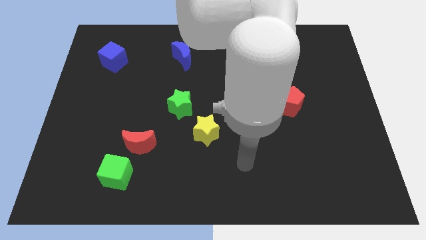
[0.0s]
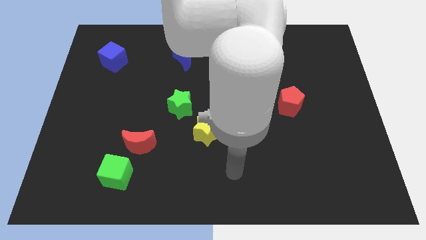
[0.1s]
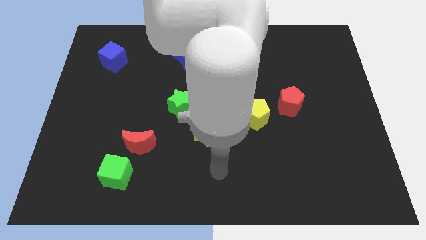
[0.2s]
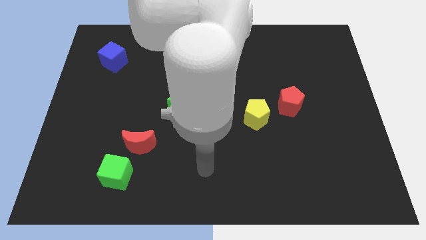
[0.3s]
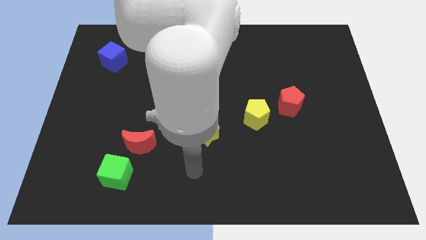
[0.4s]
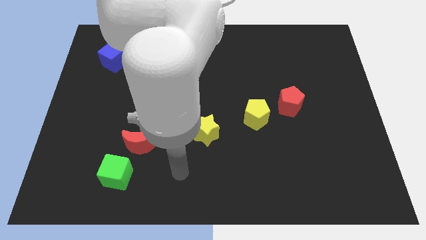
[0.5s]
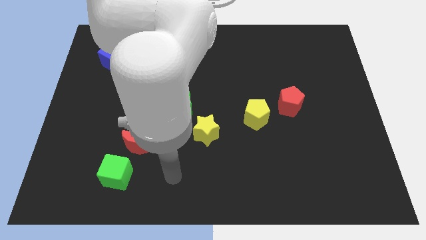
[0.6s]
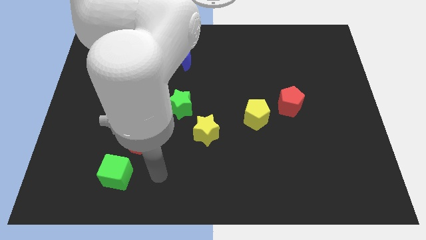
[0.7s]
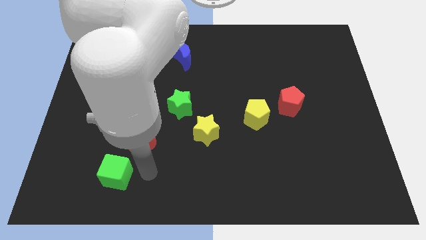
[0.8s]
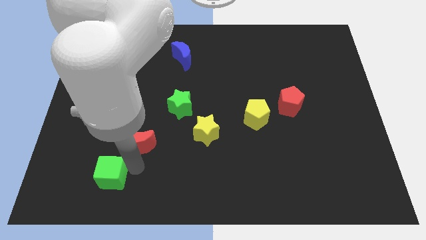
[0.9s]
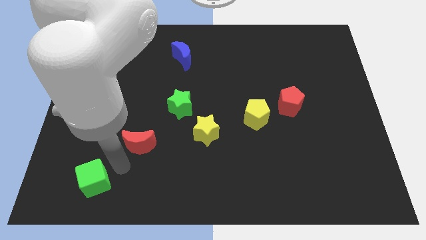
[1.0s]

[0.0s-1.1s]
pull the red moon apart from the green cube

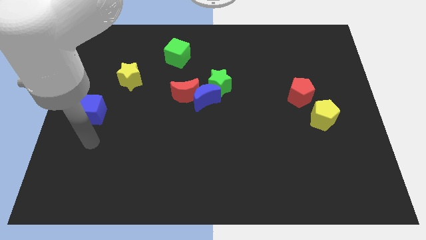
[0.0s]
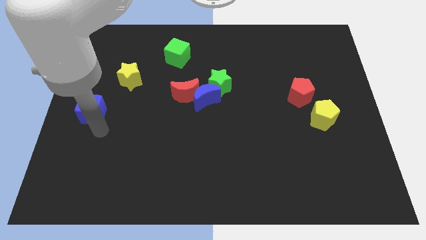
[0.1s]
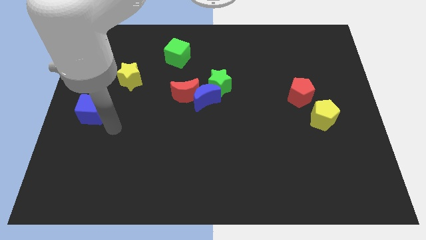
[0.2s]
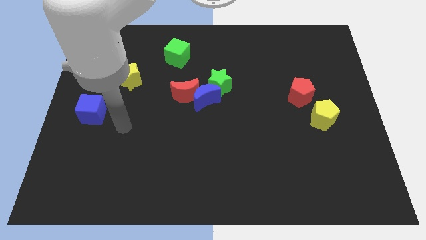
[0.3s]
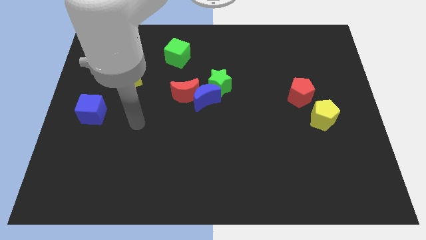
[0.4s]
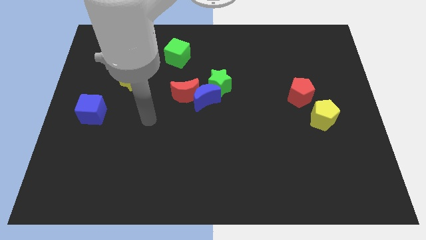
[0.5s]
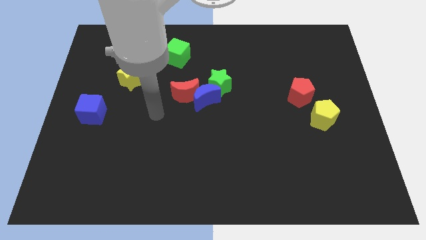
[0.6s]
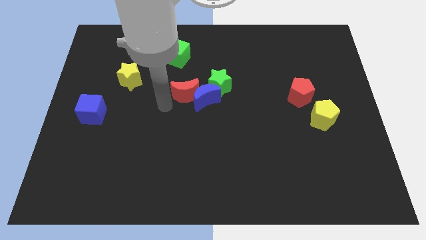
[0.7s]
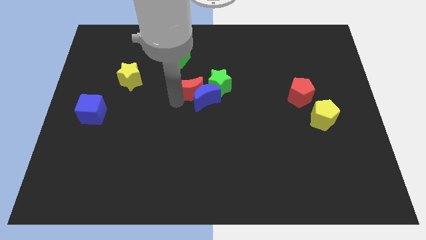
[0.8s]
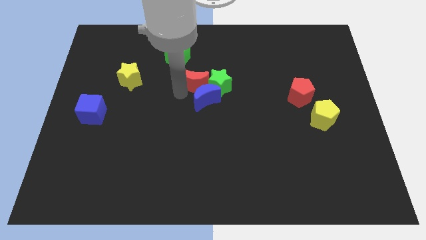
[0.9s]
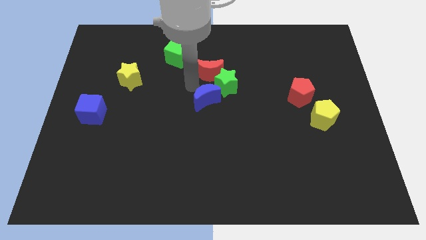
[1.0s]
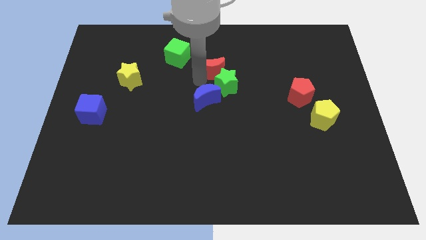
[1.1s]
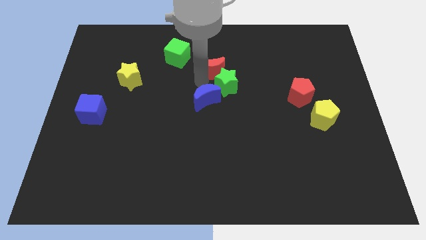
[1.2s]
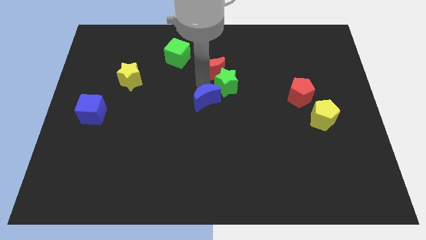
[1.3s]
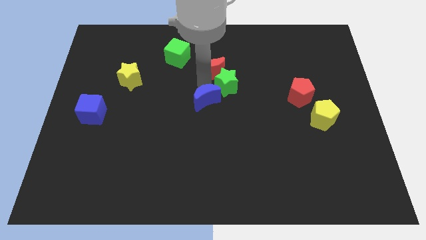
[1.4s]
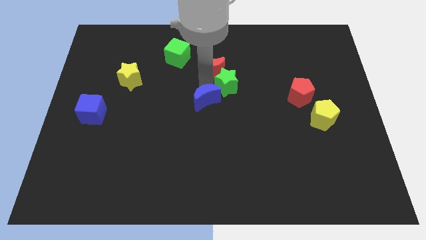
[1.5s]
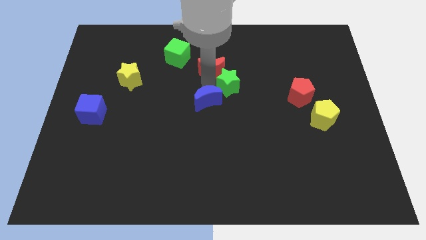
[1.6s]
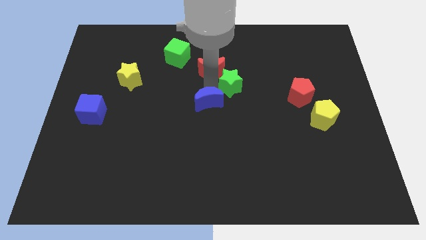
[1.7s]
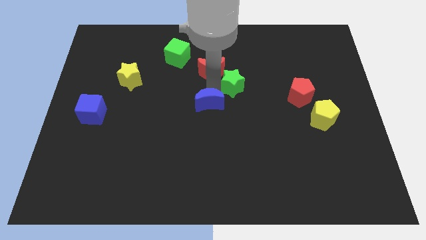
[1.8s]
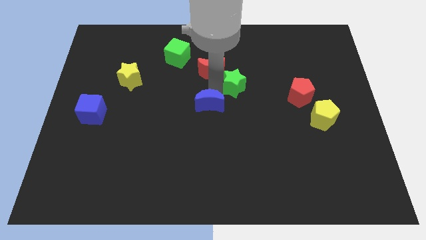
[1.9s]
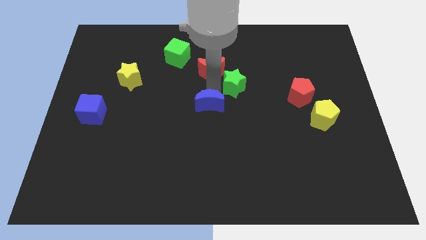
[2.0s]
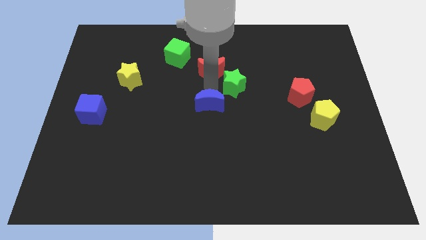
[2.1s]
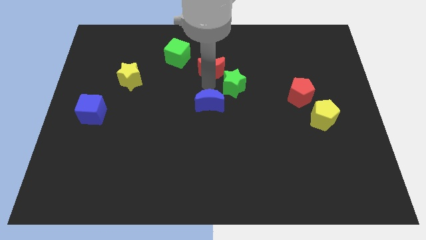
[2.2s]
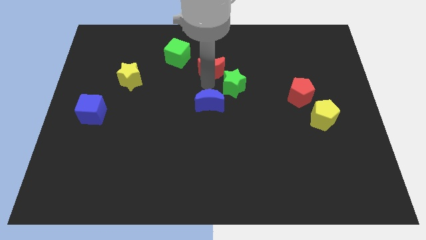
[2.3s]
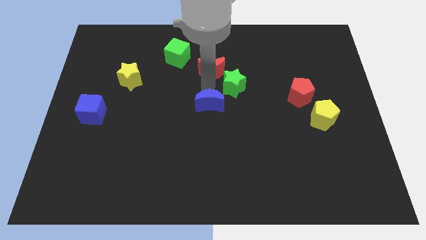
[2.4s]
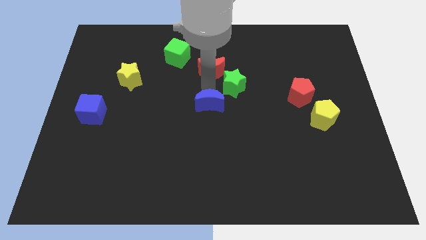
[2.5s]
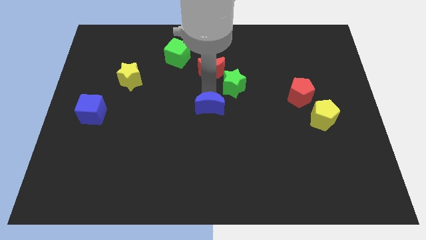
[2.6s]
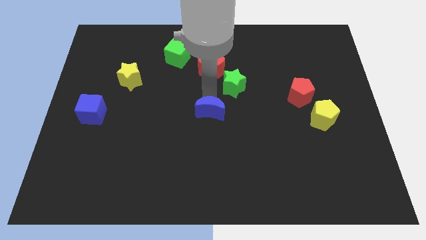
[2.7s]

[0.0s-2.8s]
move the blue moon away from the red moon and green star

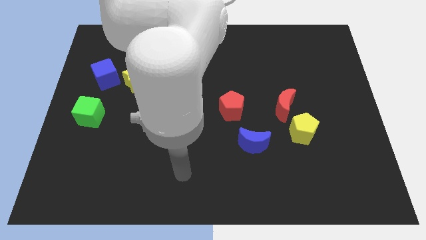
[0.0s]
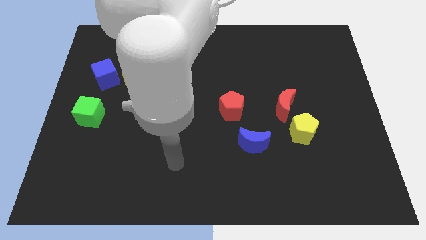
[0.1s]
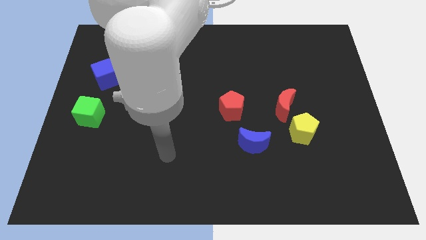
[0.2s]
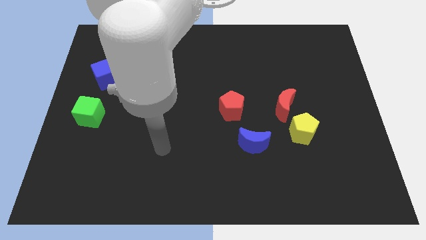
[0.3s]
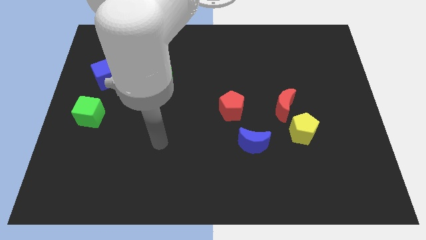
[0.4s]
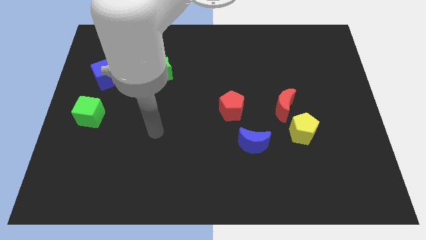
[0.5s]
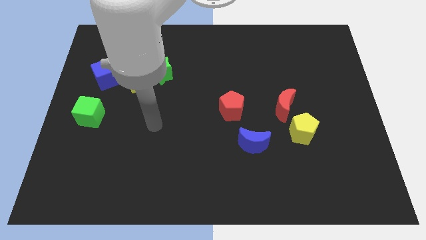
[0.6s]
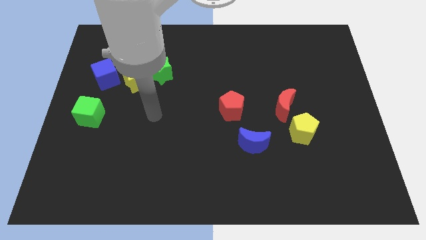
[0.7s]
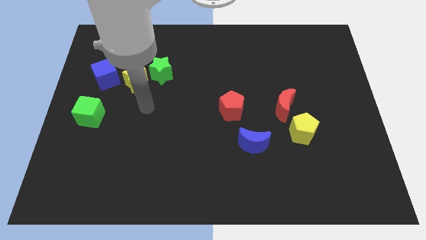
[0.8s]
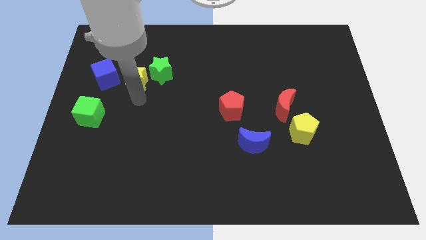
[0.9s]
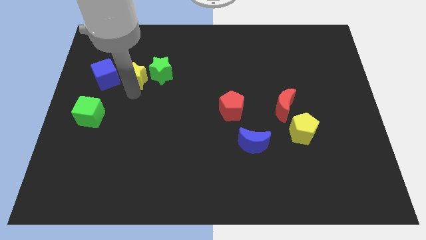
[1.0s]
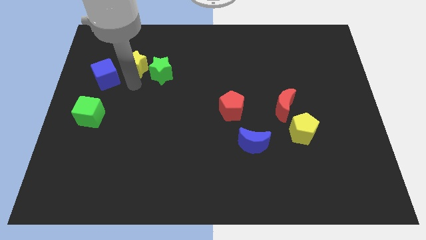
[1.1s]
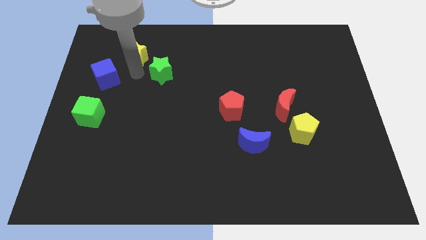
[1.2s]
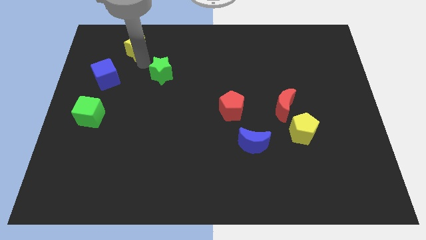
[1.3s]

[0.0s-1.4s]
pull the green star apart from the yellow star

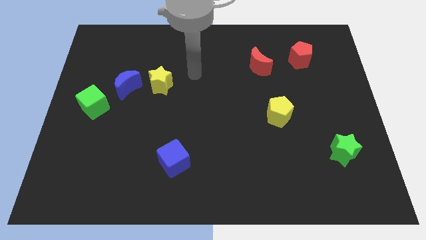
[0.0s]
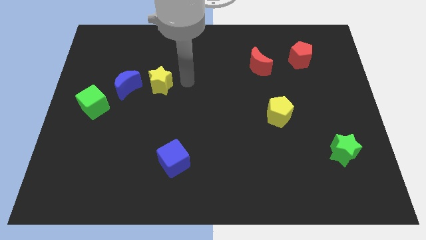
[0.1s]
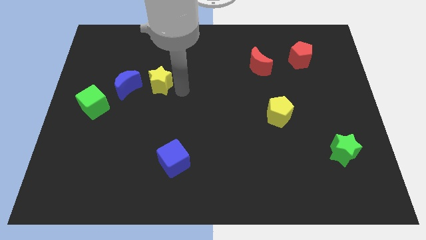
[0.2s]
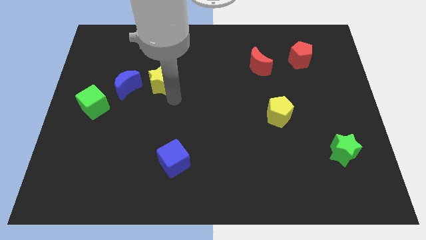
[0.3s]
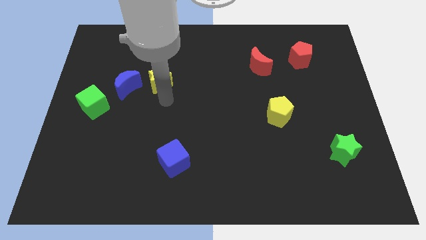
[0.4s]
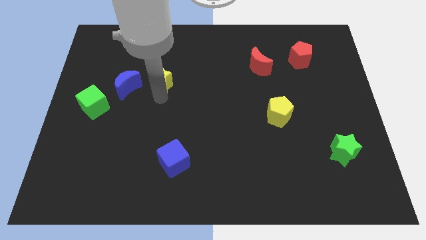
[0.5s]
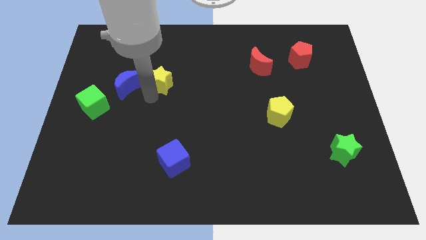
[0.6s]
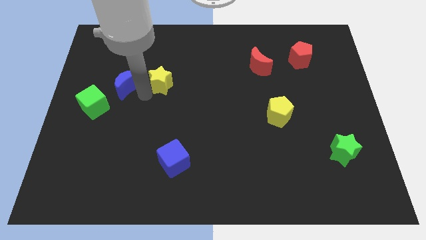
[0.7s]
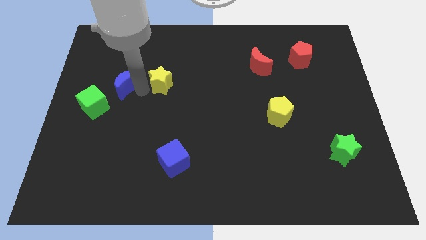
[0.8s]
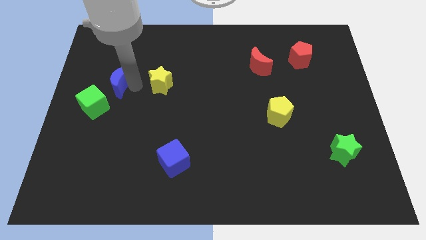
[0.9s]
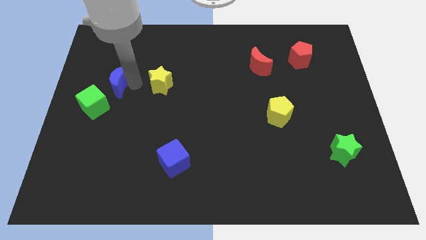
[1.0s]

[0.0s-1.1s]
separate the yellow star from the blue moon

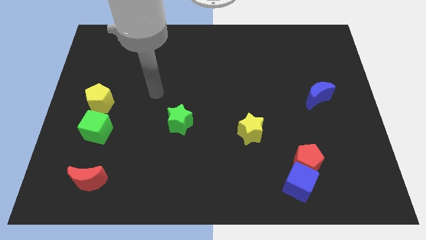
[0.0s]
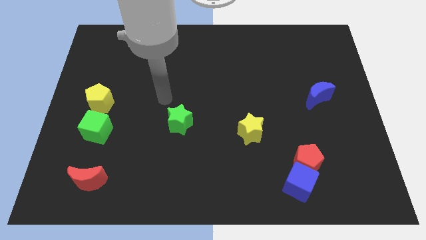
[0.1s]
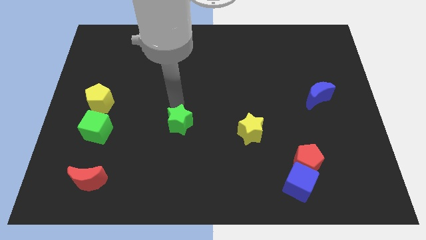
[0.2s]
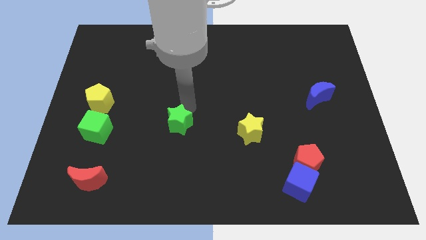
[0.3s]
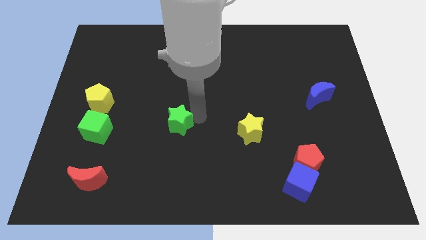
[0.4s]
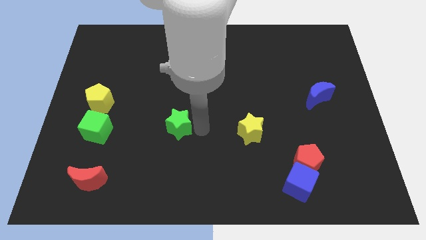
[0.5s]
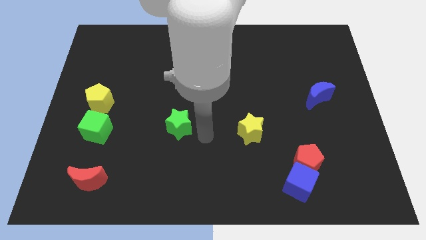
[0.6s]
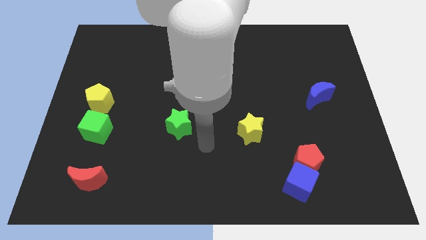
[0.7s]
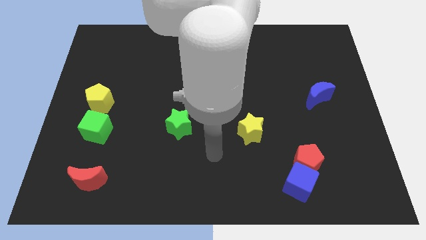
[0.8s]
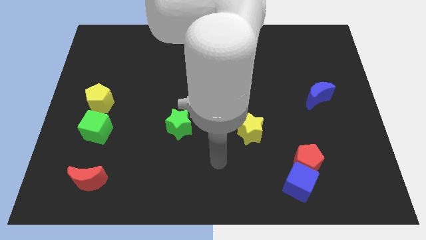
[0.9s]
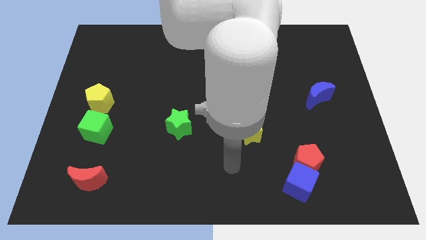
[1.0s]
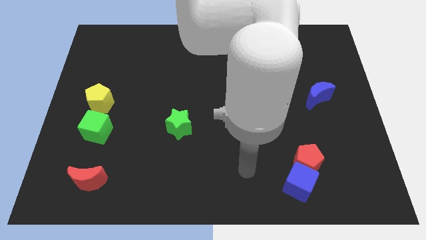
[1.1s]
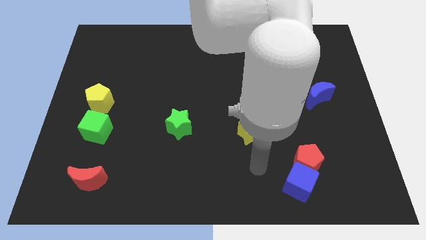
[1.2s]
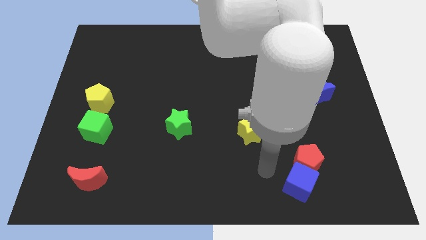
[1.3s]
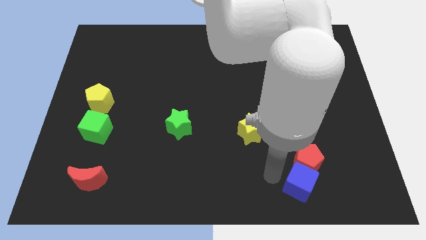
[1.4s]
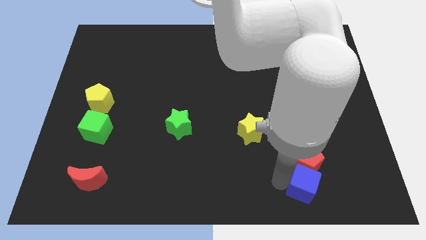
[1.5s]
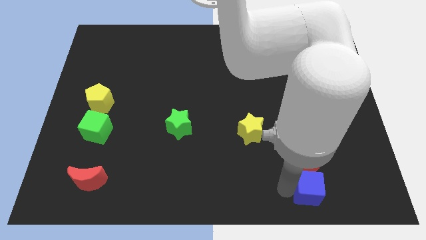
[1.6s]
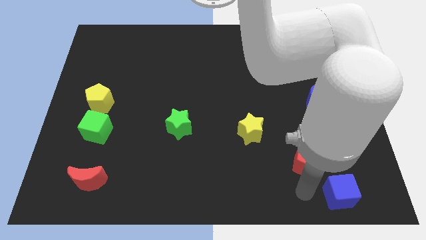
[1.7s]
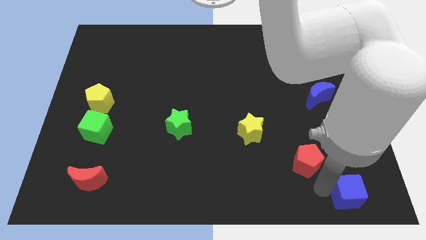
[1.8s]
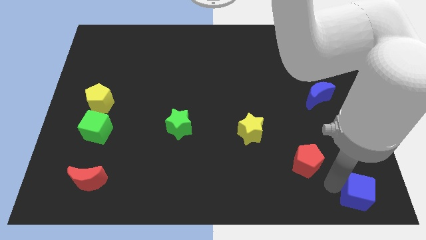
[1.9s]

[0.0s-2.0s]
move the red pentagon away from the blue cube

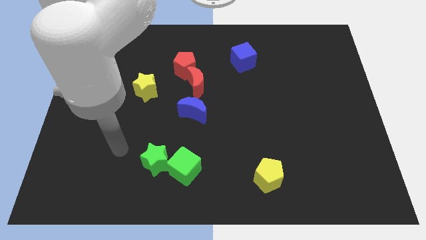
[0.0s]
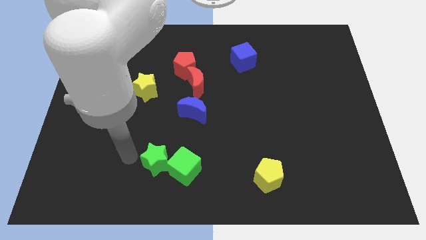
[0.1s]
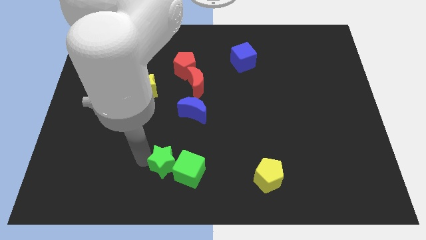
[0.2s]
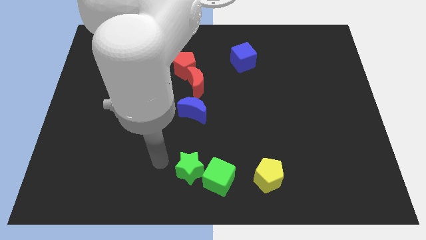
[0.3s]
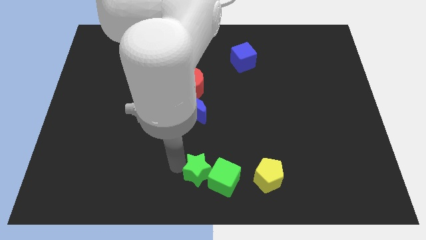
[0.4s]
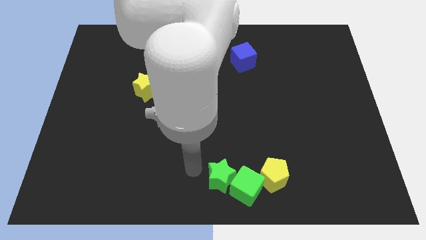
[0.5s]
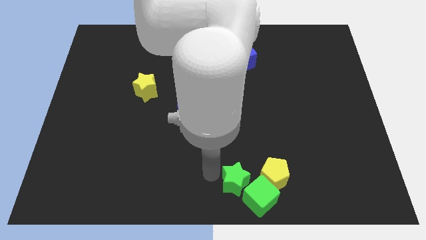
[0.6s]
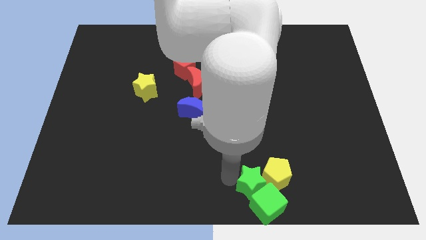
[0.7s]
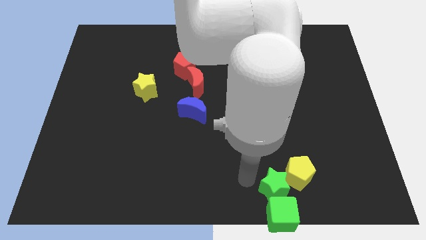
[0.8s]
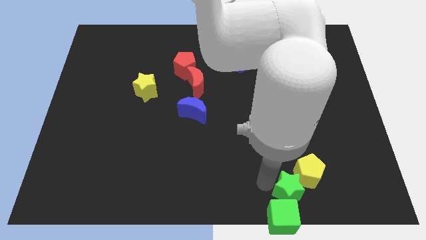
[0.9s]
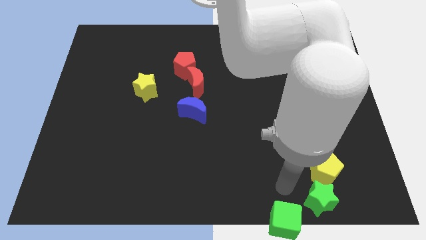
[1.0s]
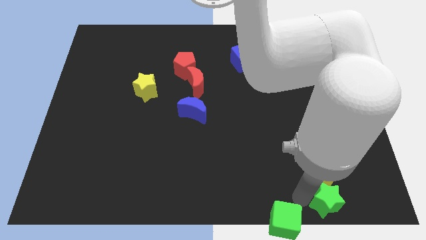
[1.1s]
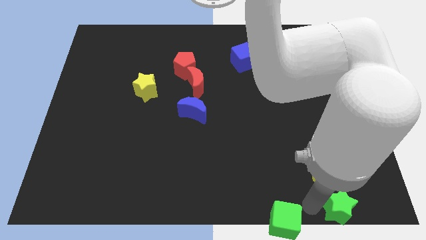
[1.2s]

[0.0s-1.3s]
move the green cube away from the green star
